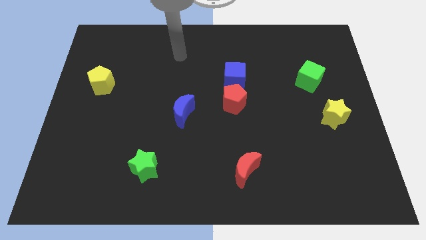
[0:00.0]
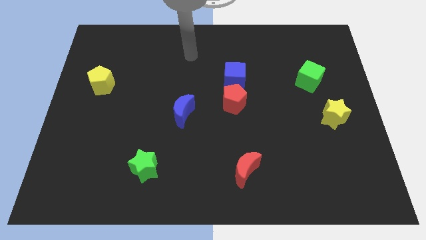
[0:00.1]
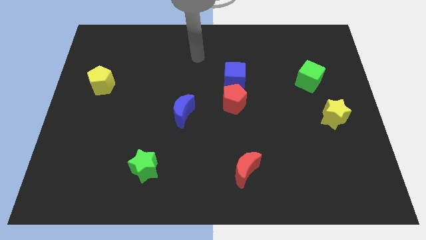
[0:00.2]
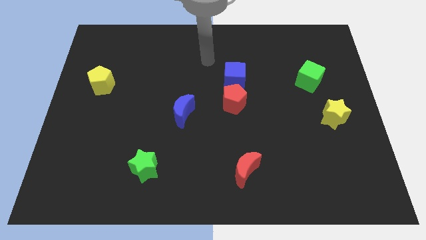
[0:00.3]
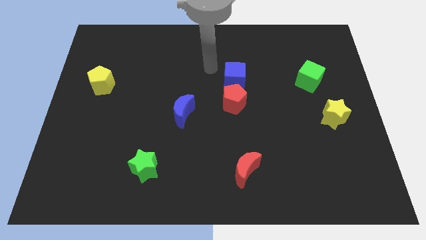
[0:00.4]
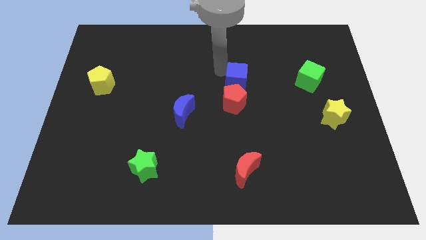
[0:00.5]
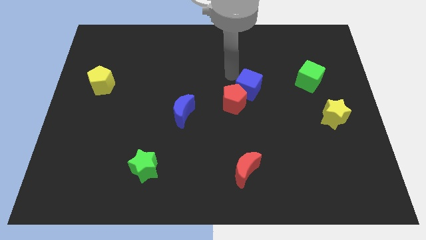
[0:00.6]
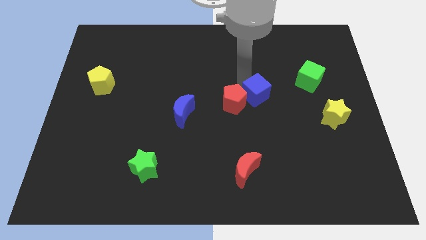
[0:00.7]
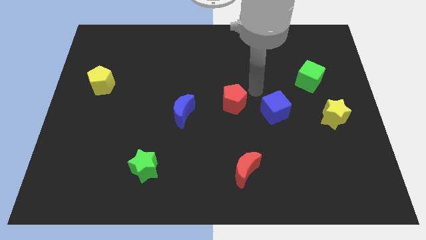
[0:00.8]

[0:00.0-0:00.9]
separate the red pentagon from the blue cube

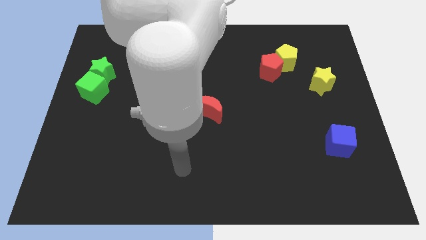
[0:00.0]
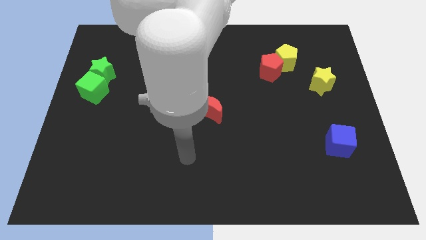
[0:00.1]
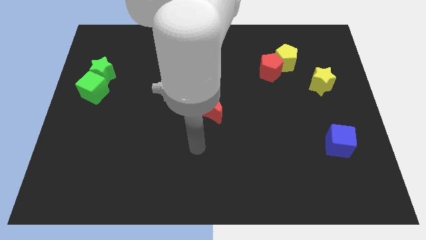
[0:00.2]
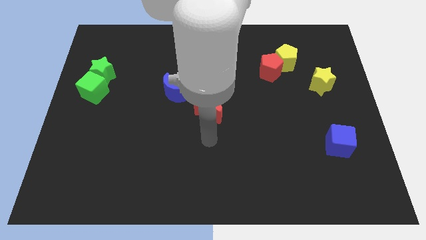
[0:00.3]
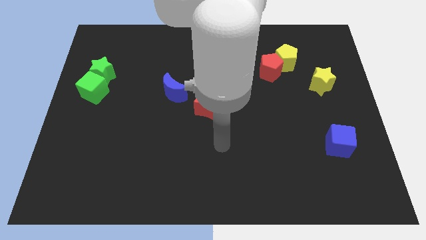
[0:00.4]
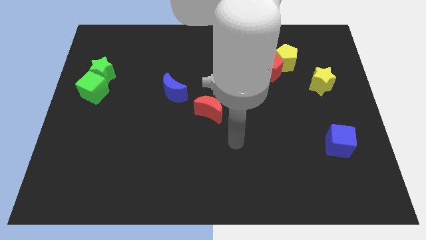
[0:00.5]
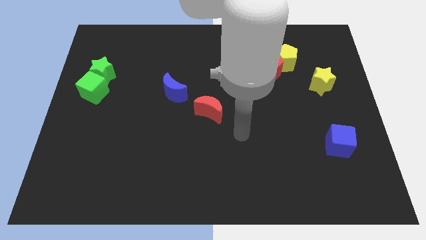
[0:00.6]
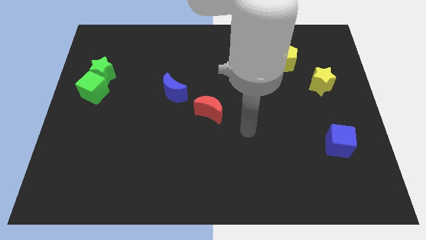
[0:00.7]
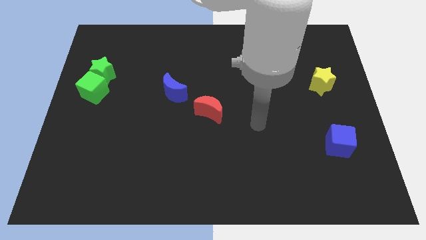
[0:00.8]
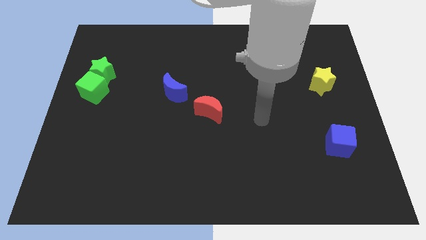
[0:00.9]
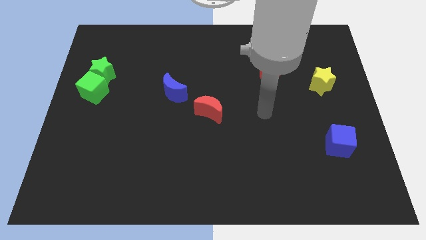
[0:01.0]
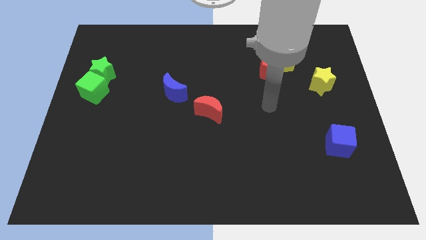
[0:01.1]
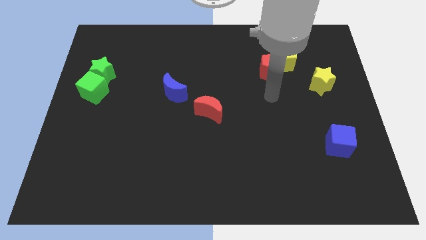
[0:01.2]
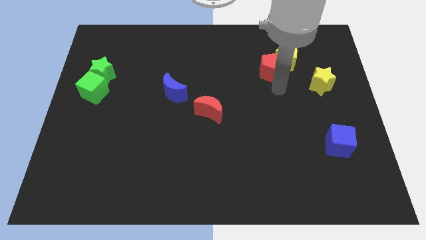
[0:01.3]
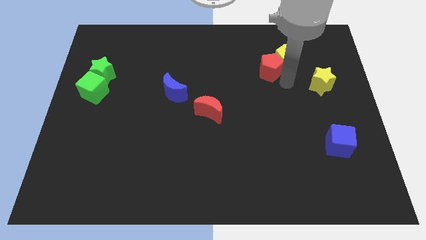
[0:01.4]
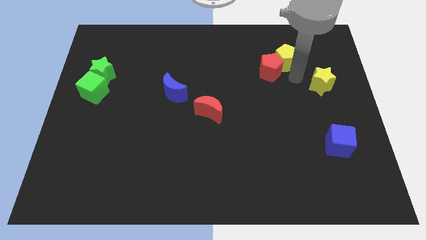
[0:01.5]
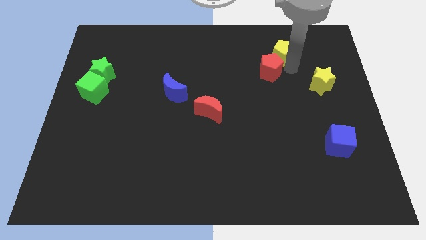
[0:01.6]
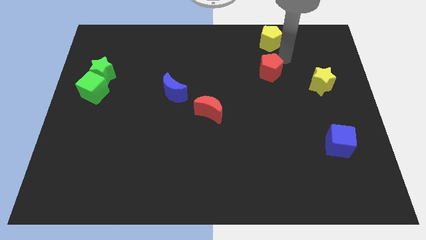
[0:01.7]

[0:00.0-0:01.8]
pull the red pentagon apart from the yellow pentagon

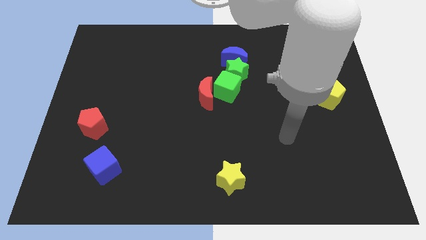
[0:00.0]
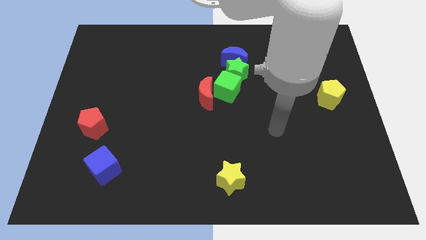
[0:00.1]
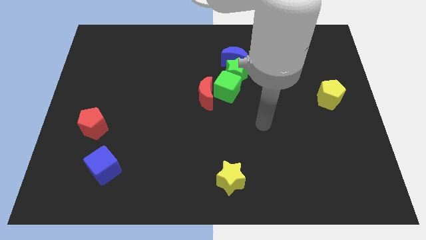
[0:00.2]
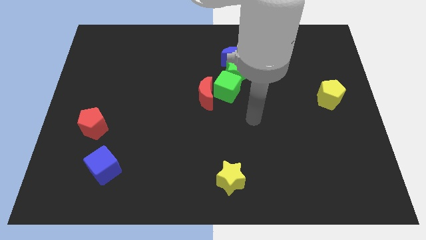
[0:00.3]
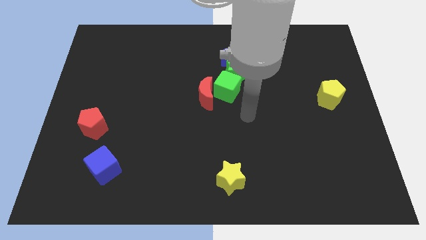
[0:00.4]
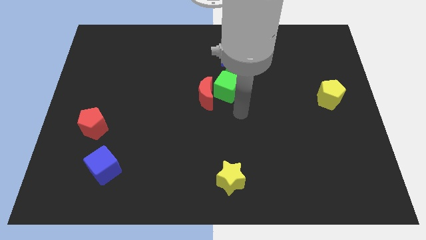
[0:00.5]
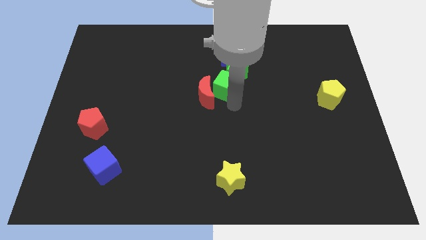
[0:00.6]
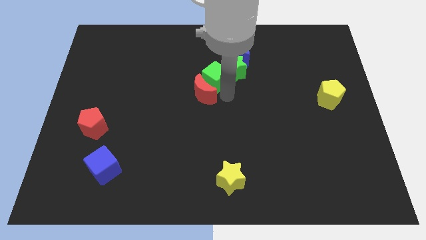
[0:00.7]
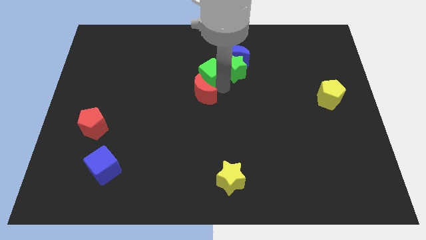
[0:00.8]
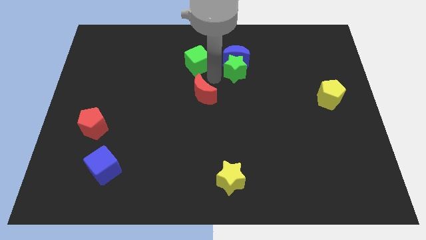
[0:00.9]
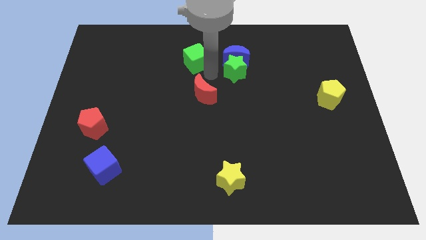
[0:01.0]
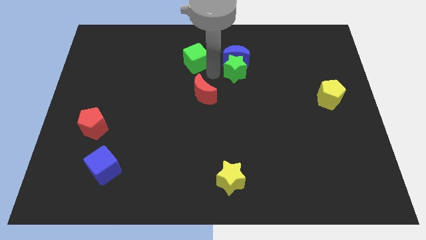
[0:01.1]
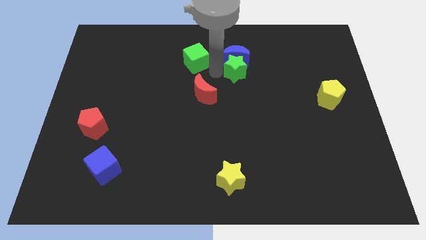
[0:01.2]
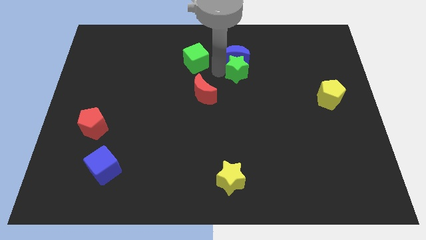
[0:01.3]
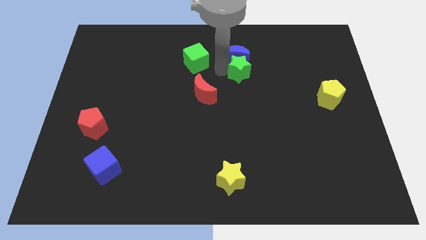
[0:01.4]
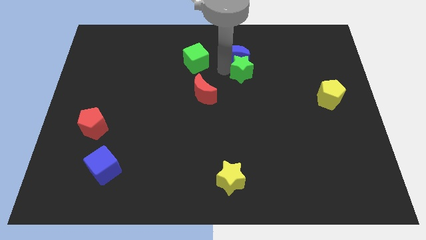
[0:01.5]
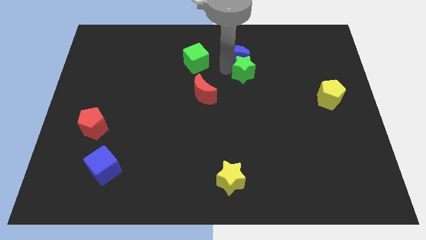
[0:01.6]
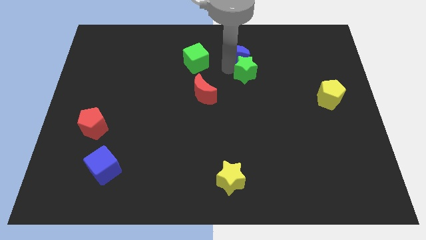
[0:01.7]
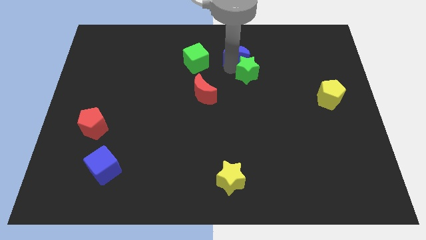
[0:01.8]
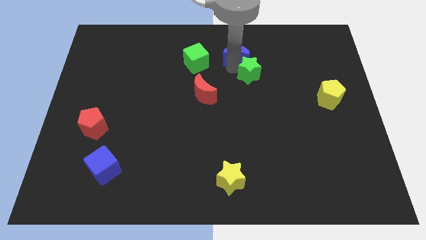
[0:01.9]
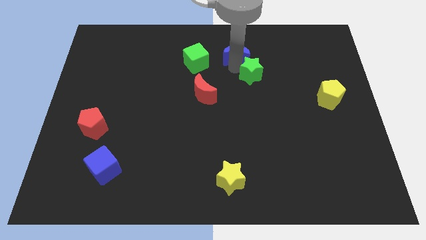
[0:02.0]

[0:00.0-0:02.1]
move the green star away from the blue moon and green cube

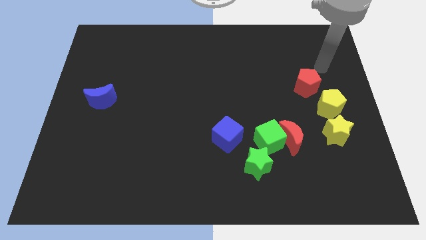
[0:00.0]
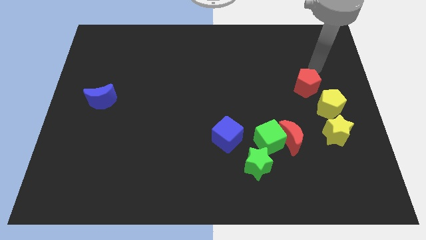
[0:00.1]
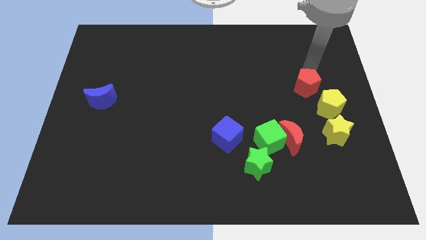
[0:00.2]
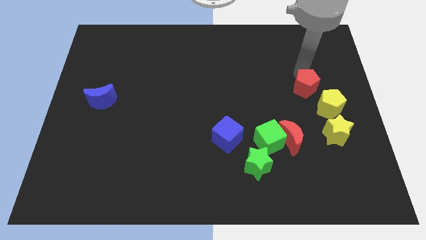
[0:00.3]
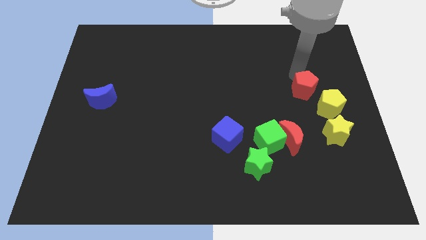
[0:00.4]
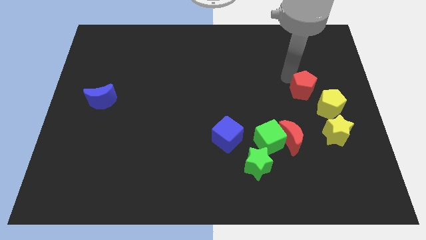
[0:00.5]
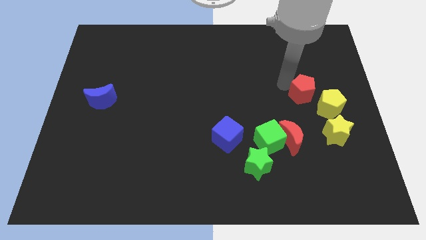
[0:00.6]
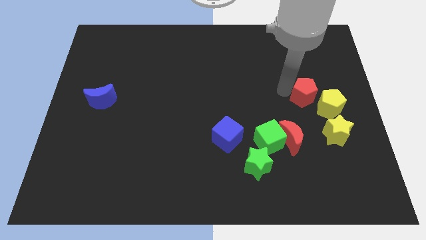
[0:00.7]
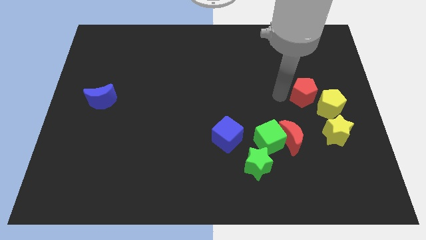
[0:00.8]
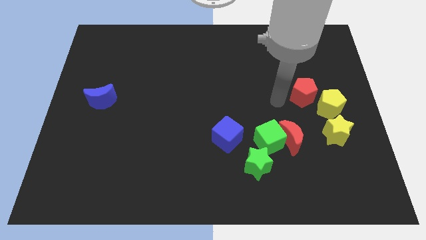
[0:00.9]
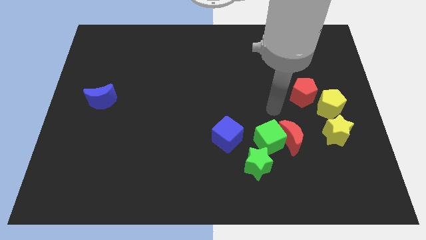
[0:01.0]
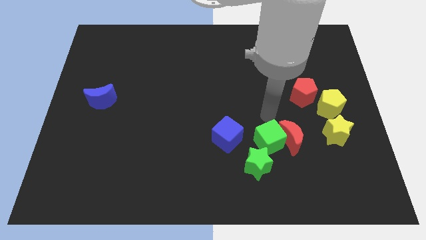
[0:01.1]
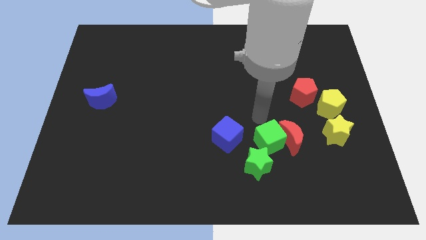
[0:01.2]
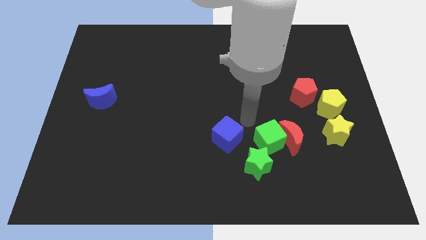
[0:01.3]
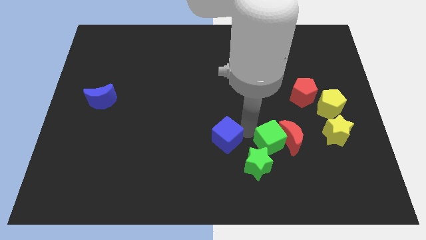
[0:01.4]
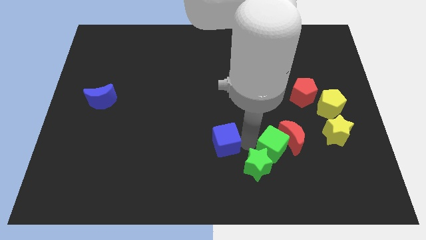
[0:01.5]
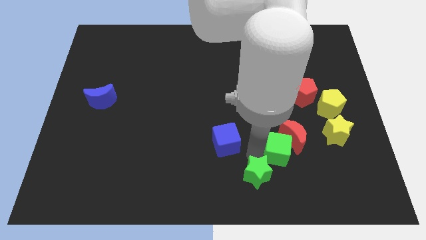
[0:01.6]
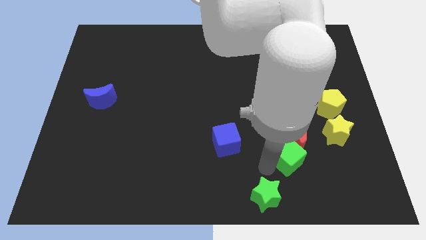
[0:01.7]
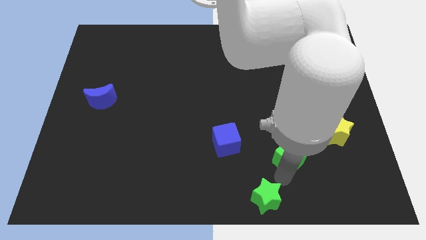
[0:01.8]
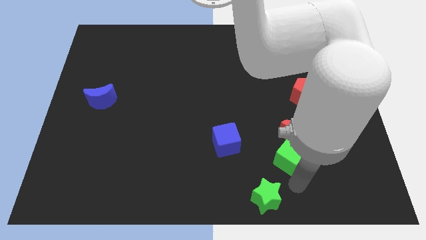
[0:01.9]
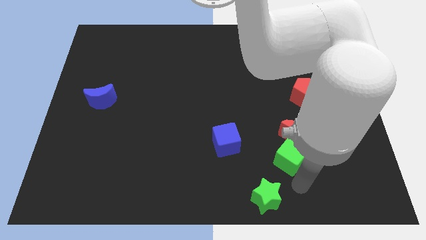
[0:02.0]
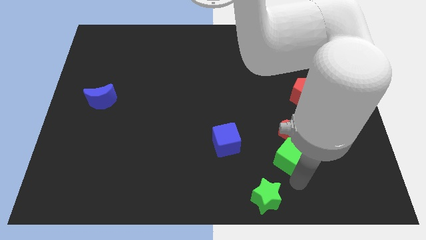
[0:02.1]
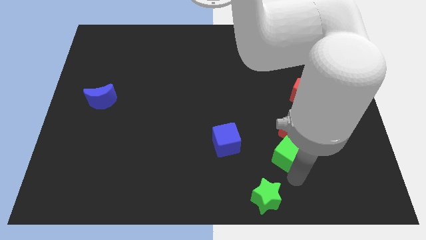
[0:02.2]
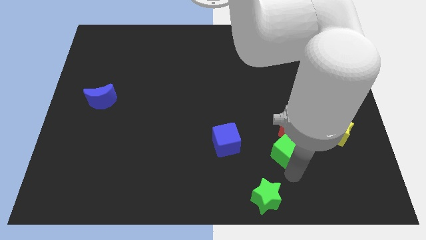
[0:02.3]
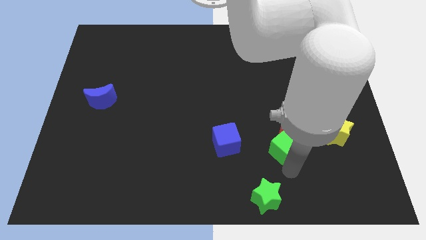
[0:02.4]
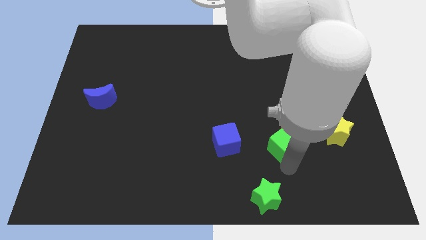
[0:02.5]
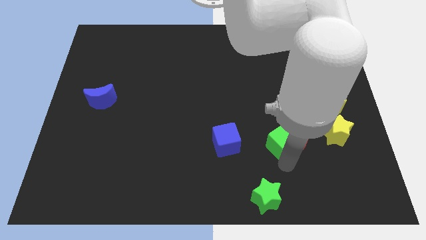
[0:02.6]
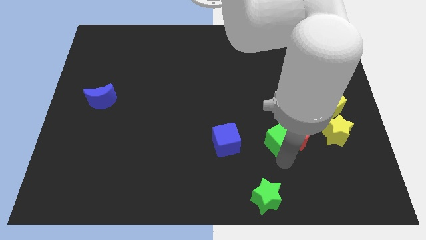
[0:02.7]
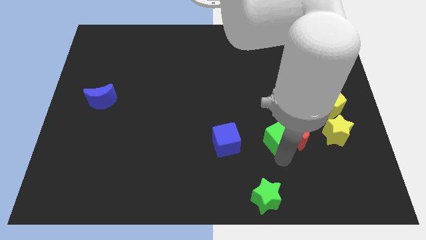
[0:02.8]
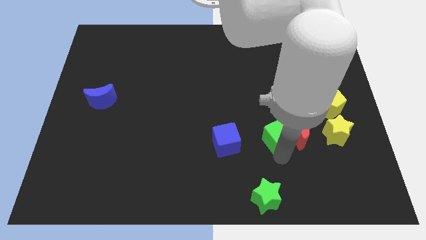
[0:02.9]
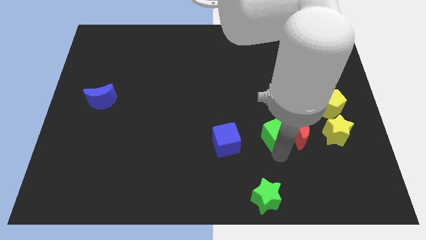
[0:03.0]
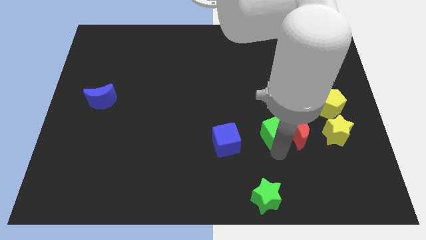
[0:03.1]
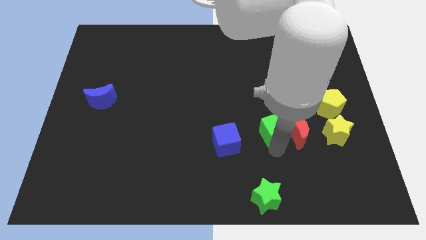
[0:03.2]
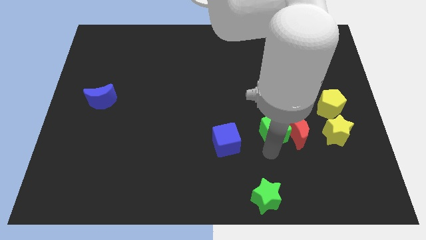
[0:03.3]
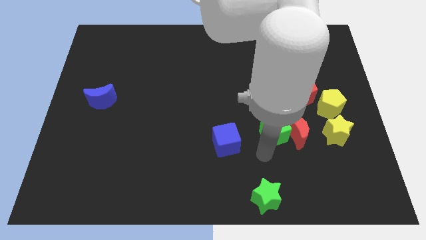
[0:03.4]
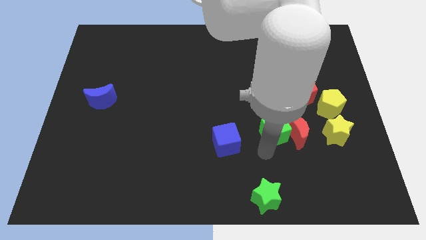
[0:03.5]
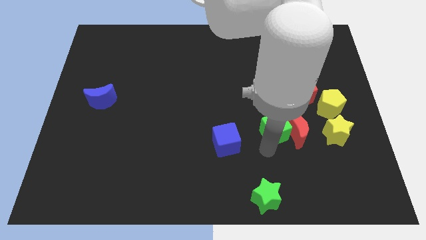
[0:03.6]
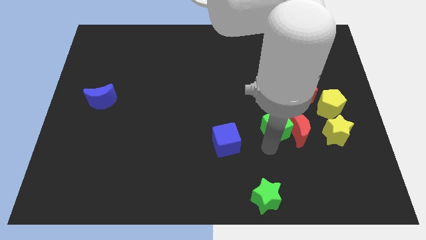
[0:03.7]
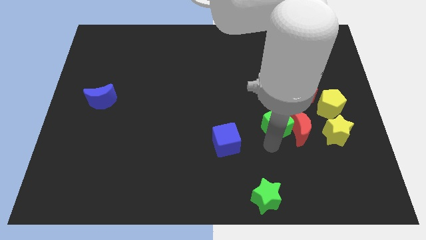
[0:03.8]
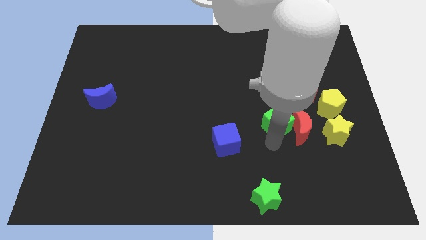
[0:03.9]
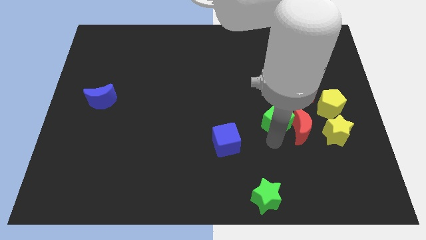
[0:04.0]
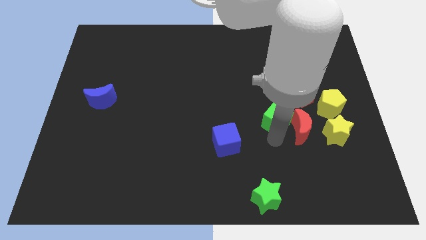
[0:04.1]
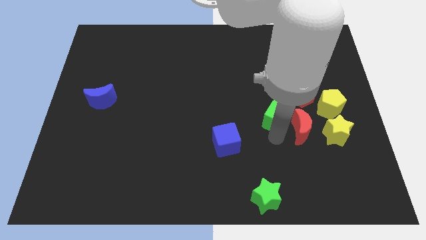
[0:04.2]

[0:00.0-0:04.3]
pull the green cube apart from the red moon, green star, and blue cube

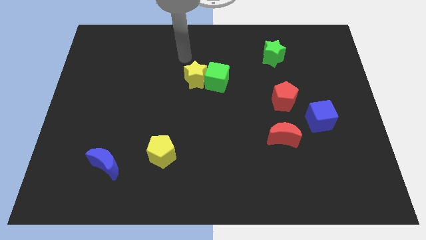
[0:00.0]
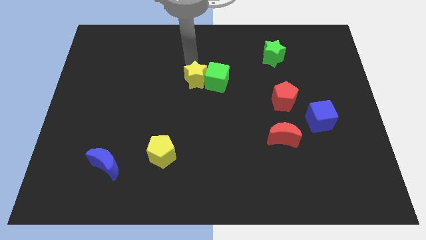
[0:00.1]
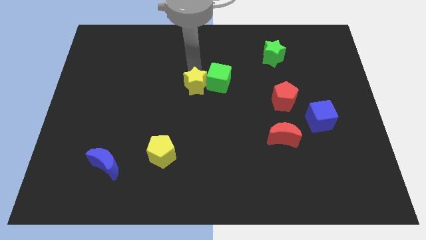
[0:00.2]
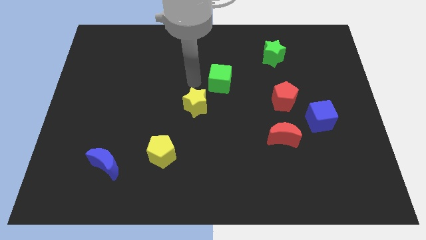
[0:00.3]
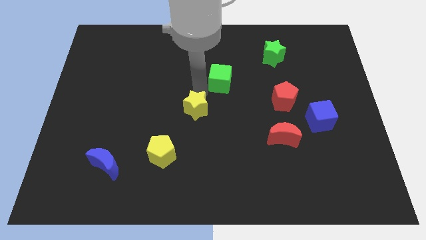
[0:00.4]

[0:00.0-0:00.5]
move the green cube away from the yellow star
